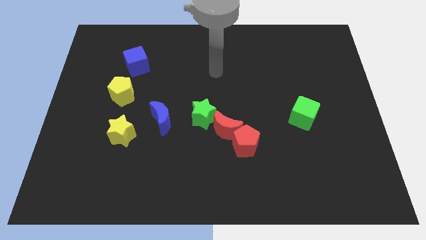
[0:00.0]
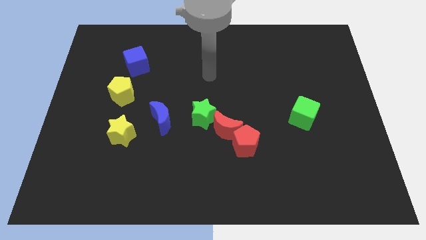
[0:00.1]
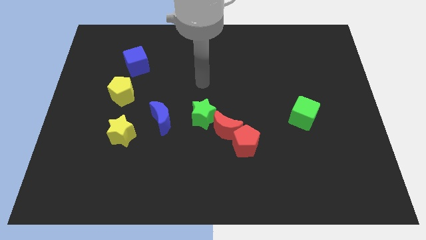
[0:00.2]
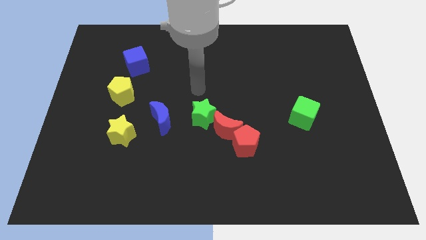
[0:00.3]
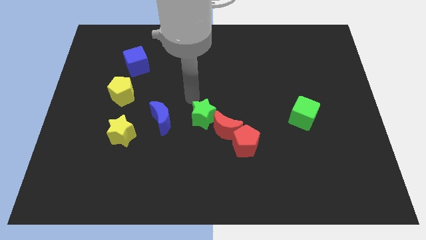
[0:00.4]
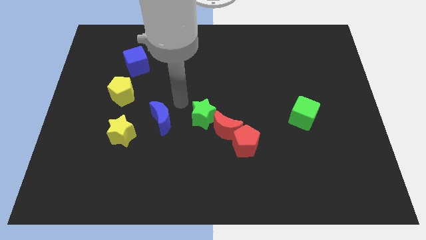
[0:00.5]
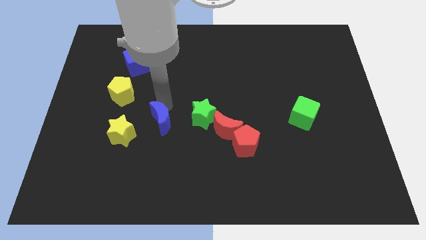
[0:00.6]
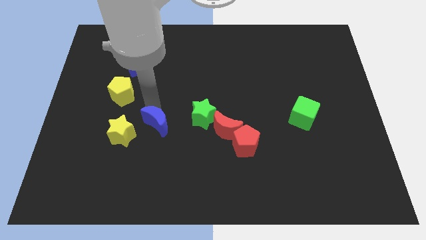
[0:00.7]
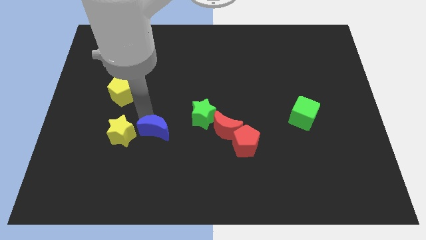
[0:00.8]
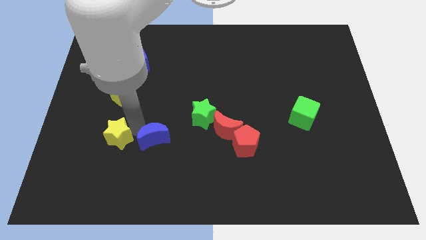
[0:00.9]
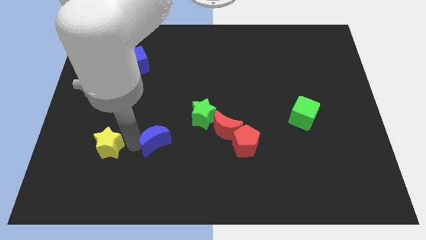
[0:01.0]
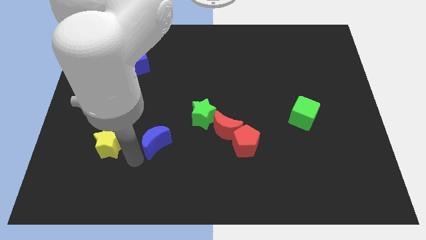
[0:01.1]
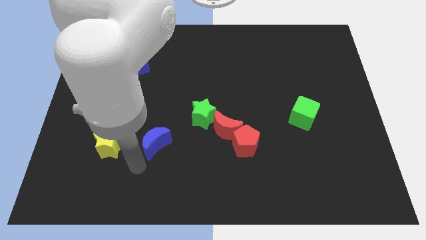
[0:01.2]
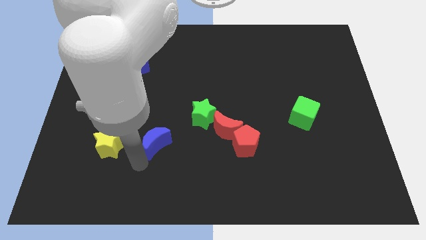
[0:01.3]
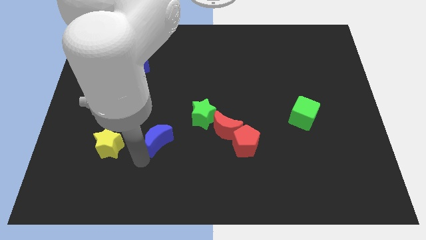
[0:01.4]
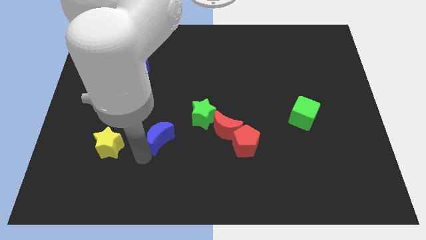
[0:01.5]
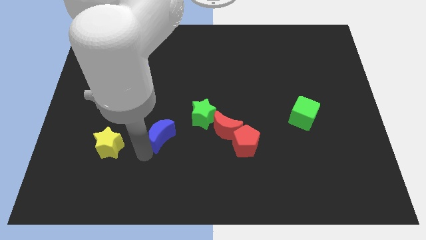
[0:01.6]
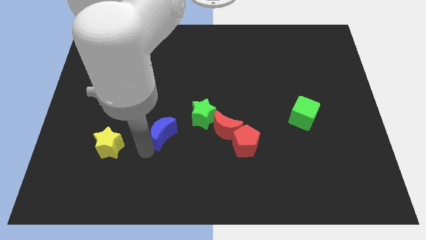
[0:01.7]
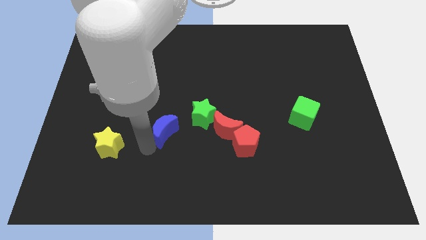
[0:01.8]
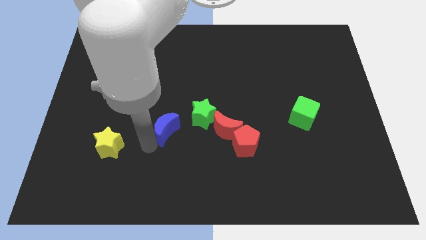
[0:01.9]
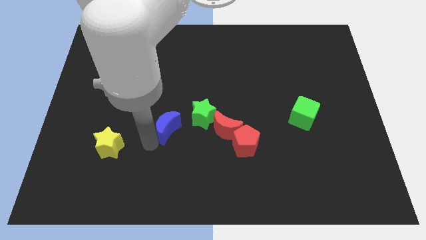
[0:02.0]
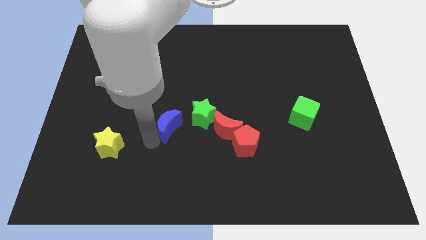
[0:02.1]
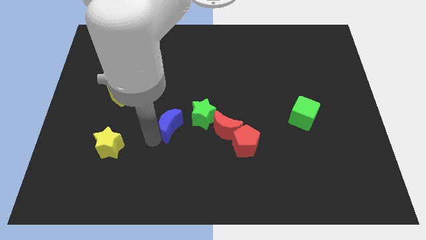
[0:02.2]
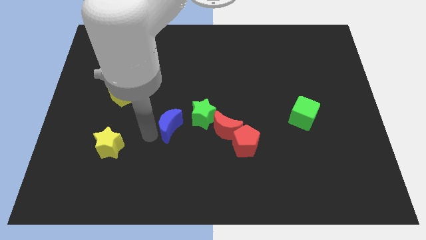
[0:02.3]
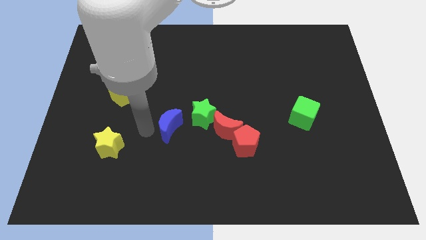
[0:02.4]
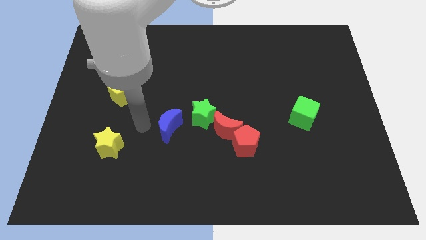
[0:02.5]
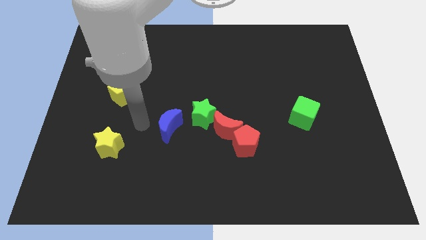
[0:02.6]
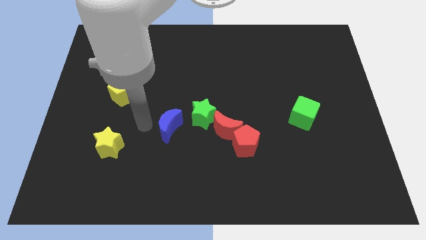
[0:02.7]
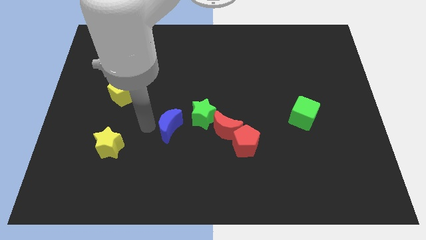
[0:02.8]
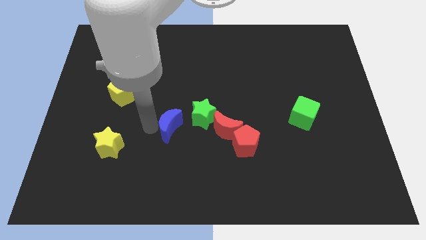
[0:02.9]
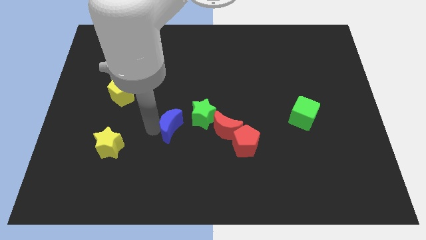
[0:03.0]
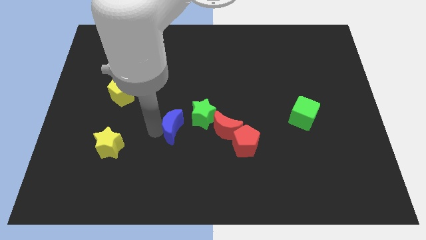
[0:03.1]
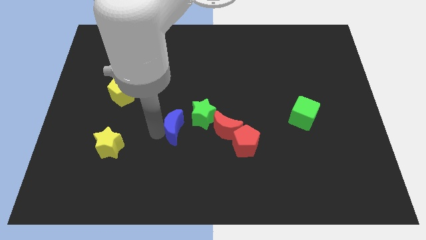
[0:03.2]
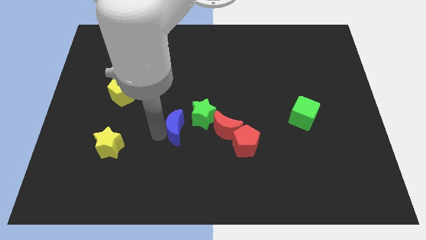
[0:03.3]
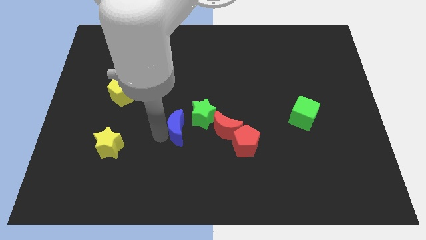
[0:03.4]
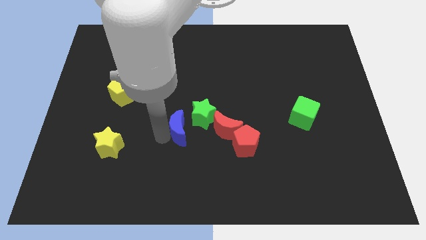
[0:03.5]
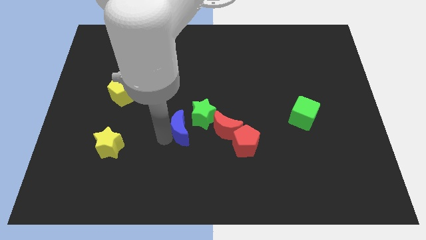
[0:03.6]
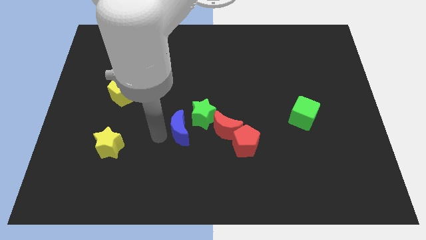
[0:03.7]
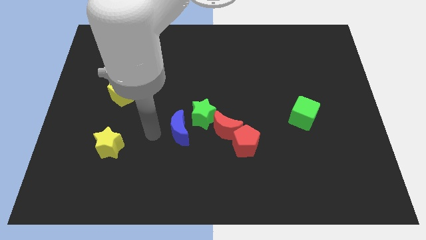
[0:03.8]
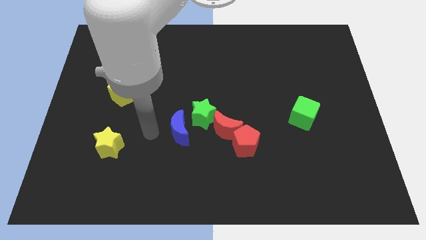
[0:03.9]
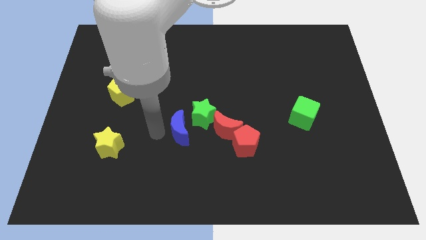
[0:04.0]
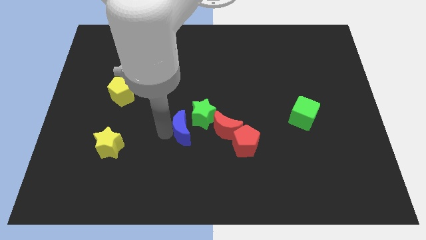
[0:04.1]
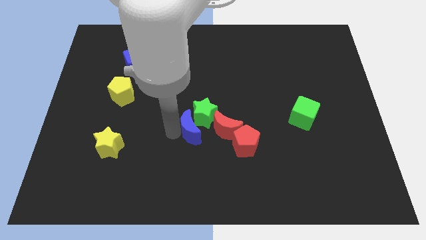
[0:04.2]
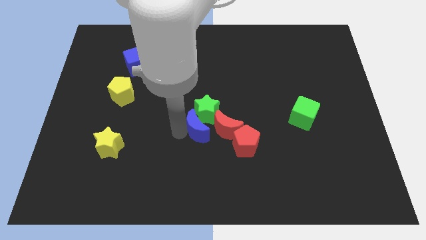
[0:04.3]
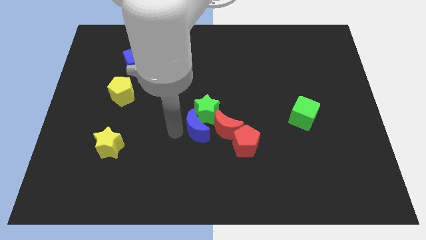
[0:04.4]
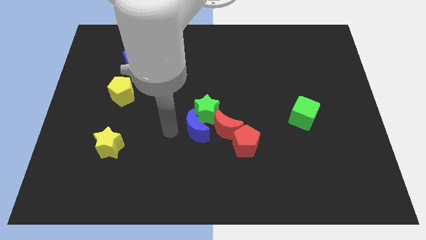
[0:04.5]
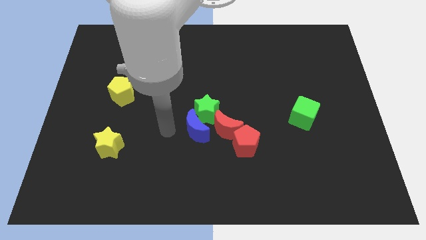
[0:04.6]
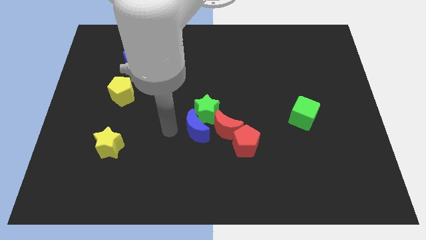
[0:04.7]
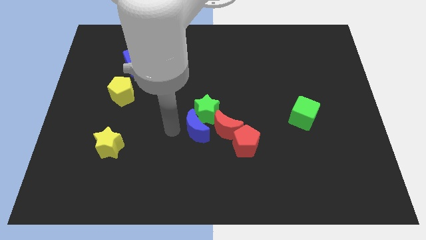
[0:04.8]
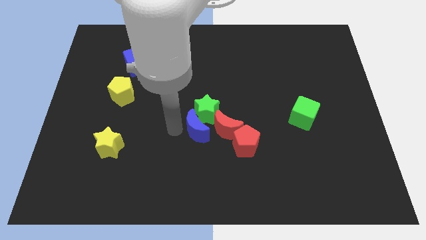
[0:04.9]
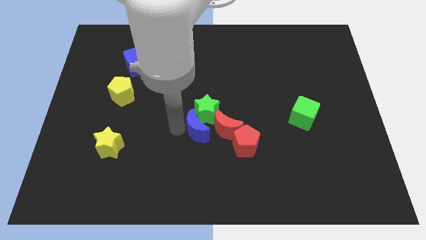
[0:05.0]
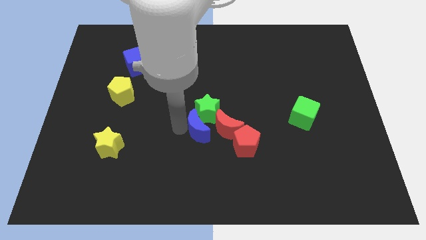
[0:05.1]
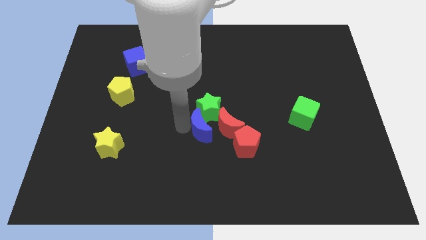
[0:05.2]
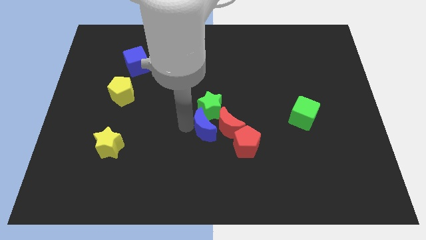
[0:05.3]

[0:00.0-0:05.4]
move the blue moon towards the red moon

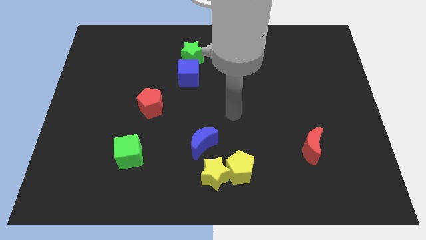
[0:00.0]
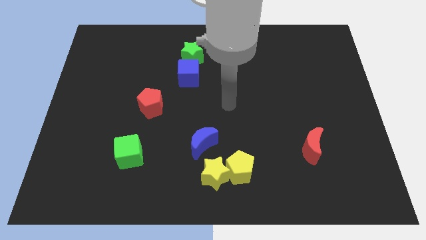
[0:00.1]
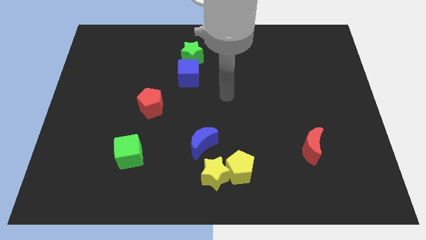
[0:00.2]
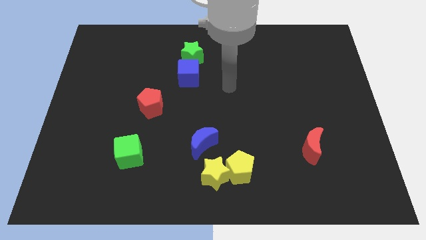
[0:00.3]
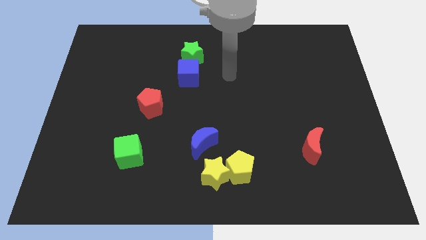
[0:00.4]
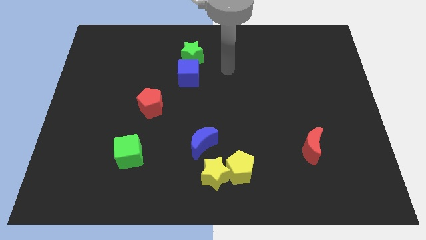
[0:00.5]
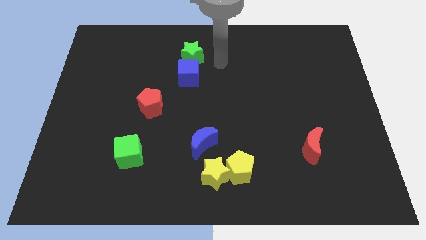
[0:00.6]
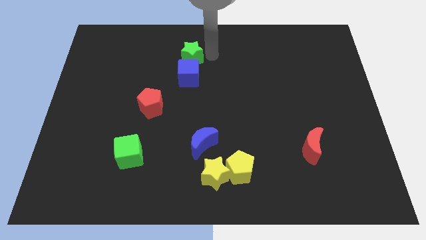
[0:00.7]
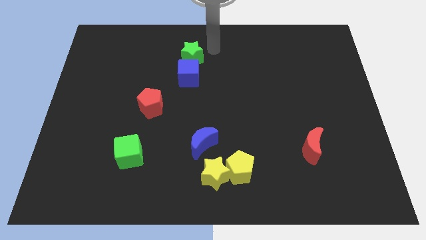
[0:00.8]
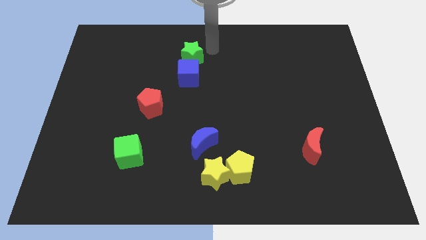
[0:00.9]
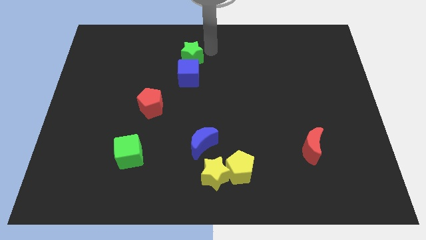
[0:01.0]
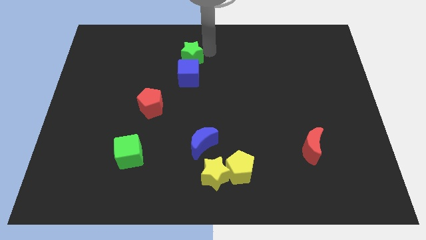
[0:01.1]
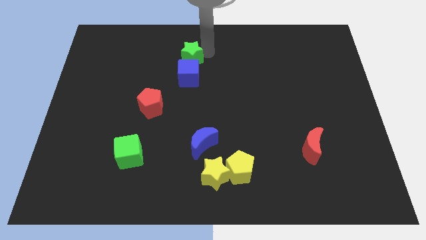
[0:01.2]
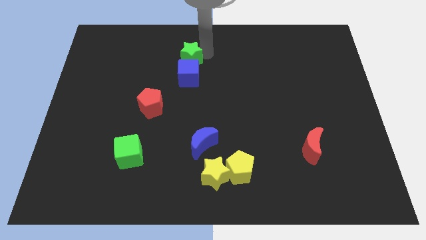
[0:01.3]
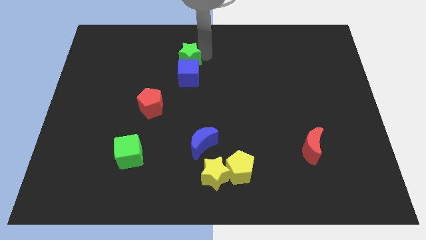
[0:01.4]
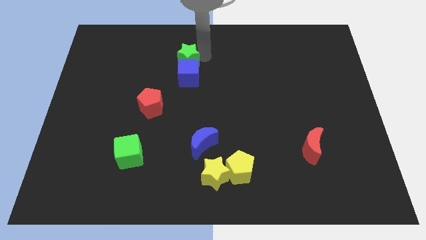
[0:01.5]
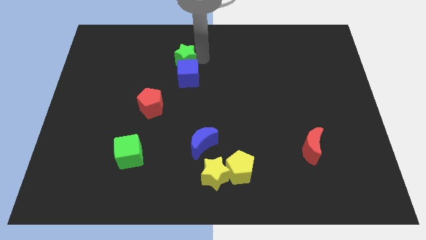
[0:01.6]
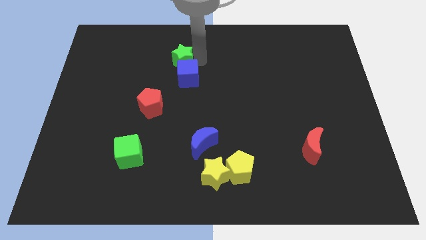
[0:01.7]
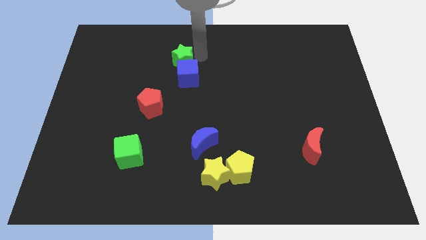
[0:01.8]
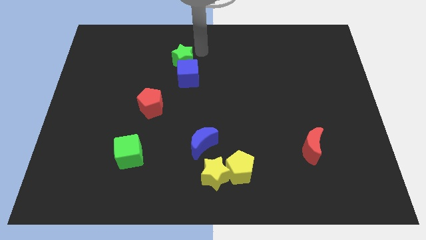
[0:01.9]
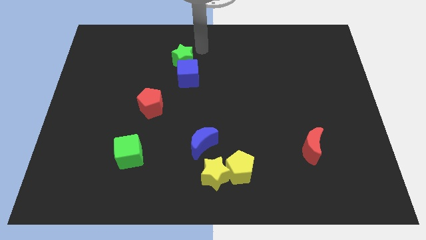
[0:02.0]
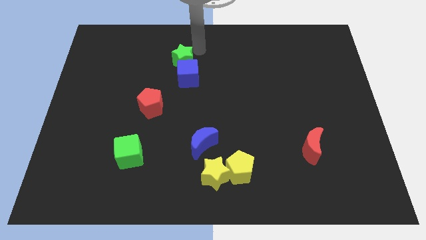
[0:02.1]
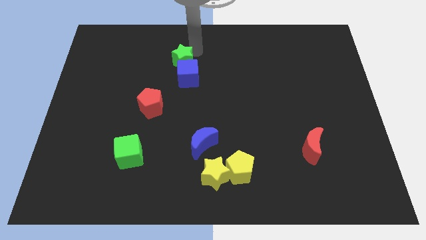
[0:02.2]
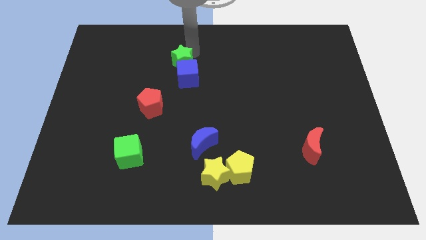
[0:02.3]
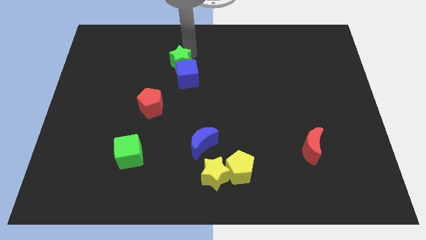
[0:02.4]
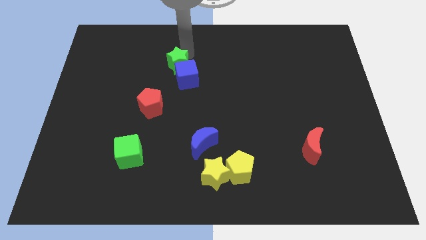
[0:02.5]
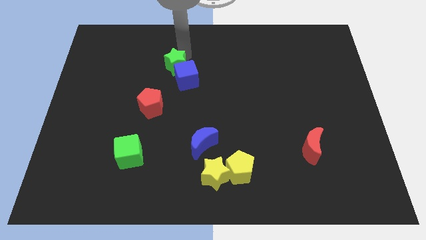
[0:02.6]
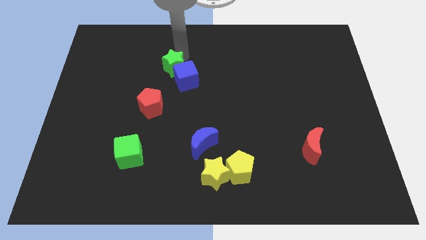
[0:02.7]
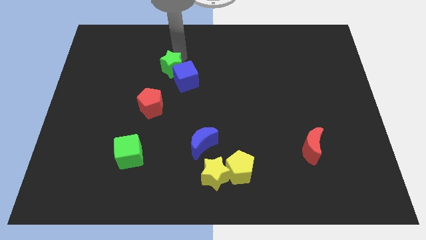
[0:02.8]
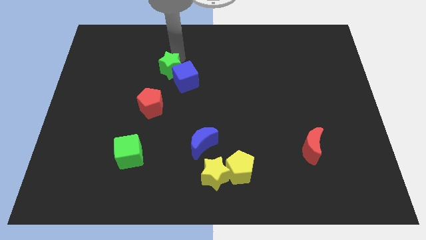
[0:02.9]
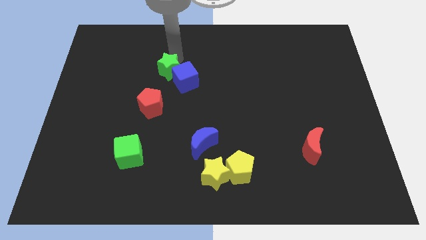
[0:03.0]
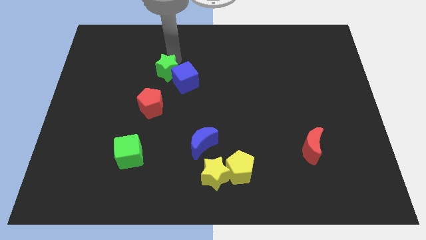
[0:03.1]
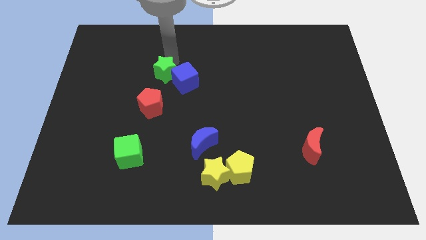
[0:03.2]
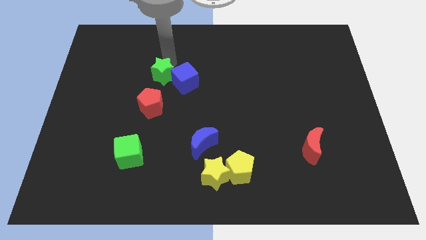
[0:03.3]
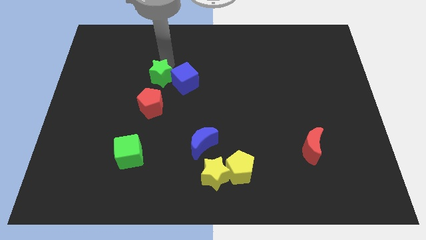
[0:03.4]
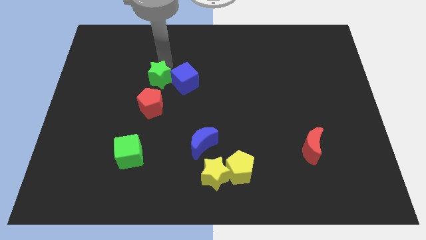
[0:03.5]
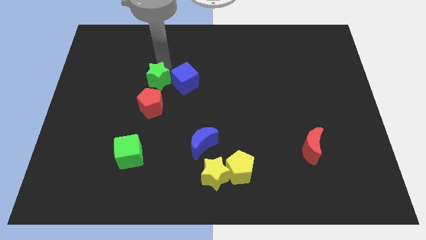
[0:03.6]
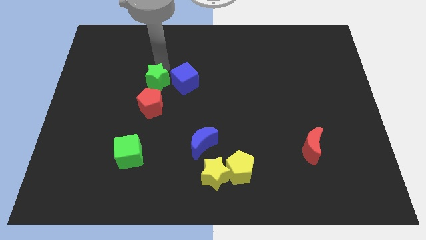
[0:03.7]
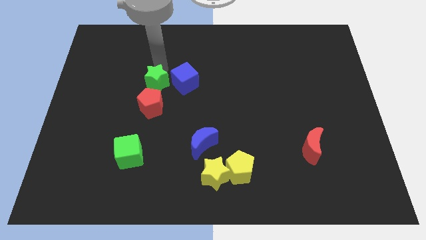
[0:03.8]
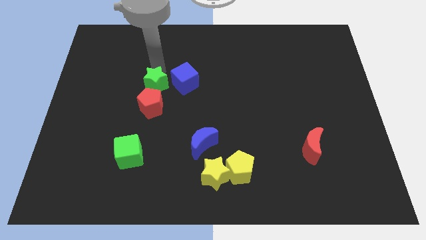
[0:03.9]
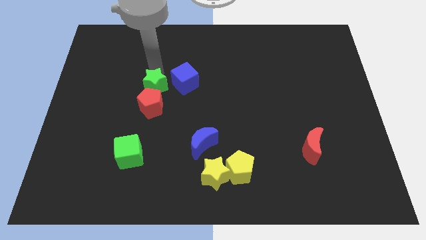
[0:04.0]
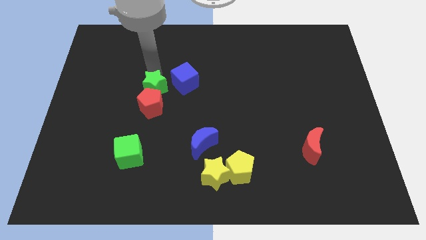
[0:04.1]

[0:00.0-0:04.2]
move the green star to the red pentagon
